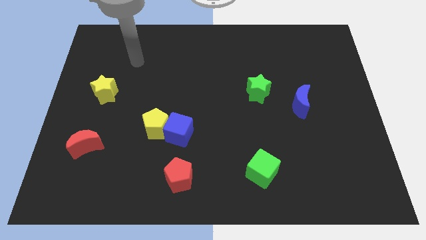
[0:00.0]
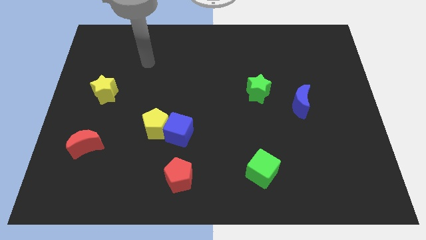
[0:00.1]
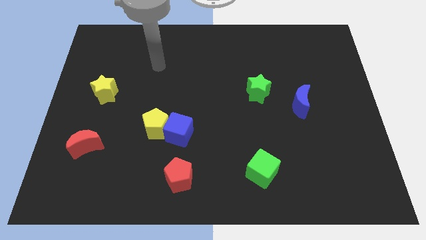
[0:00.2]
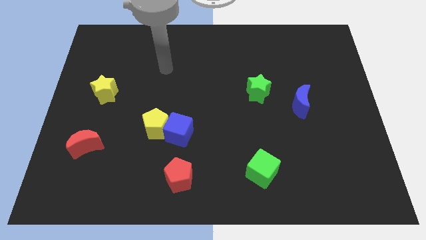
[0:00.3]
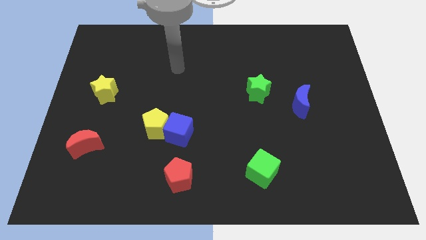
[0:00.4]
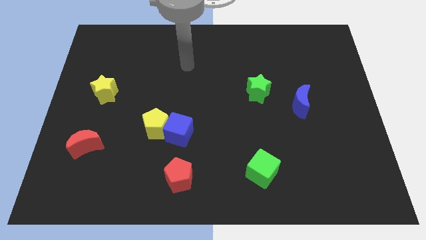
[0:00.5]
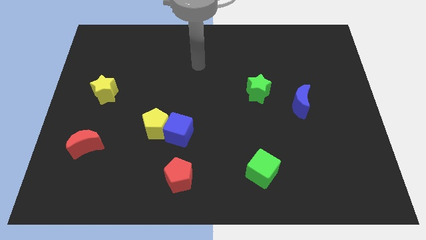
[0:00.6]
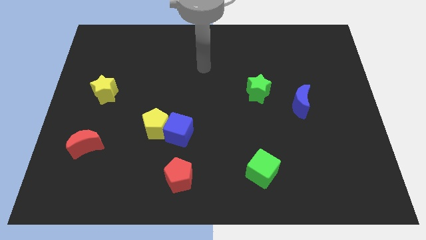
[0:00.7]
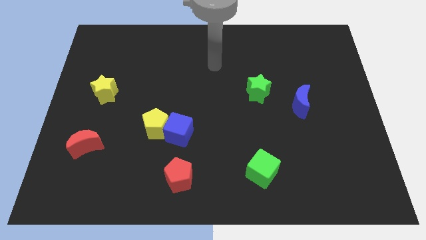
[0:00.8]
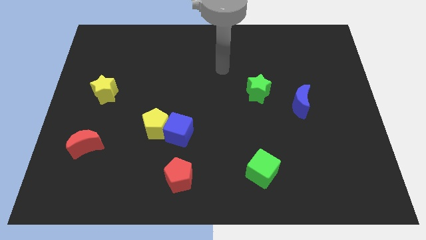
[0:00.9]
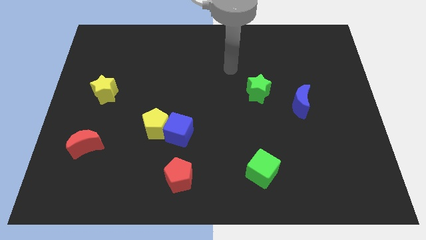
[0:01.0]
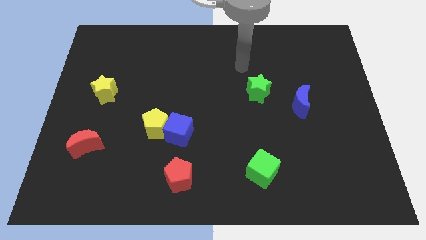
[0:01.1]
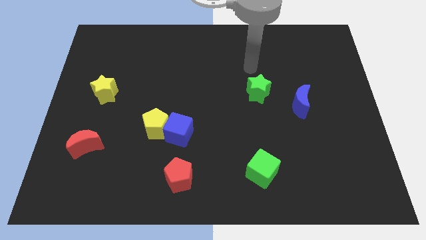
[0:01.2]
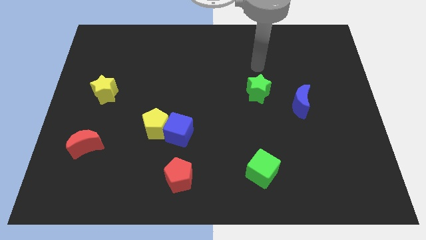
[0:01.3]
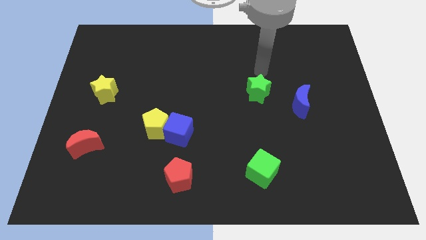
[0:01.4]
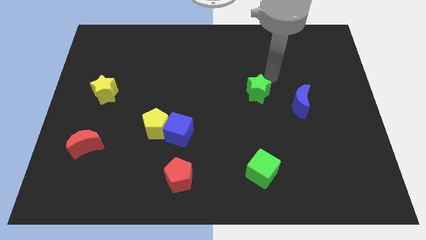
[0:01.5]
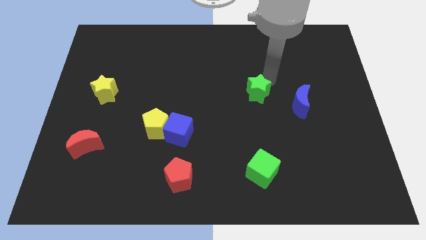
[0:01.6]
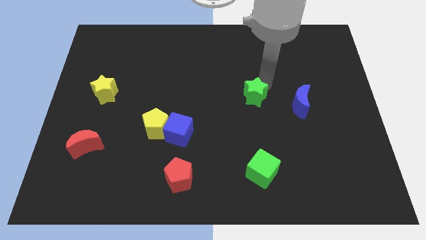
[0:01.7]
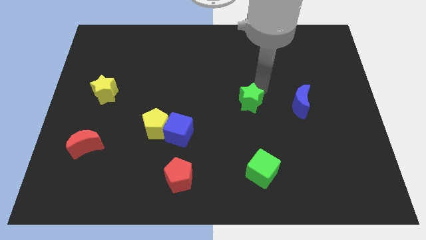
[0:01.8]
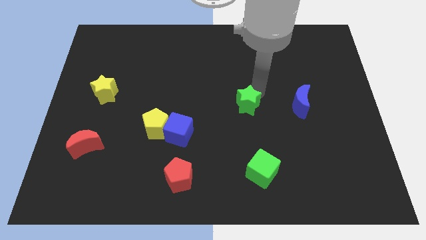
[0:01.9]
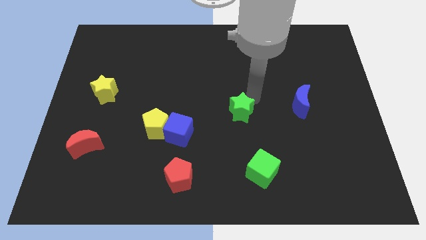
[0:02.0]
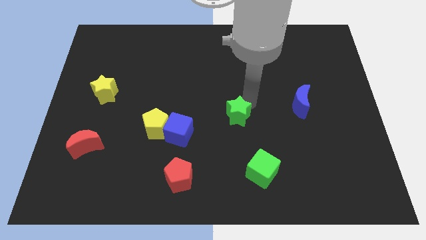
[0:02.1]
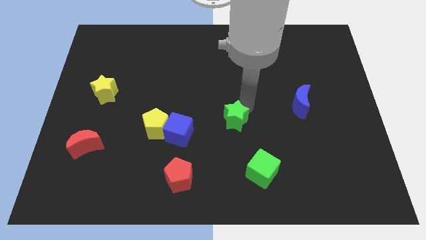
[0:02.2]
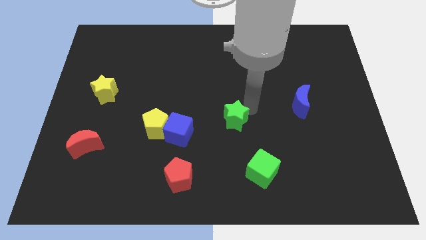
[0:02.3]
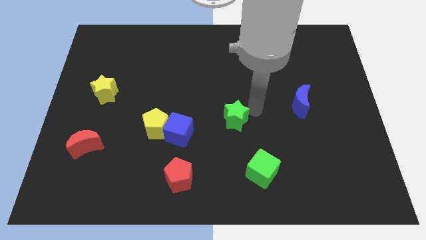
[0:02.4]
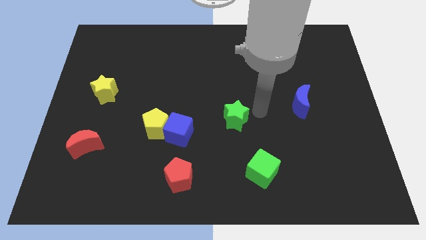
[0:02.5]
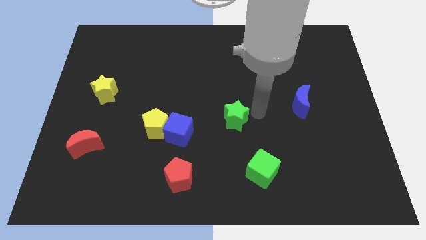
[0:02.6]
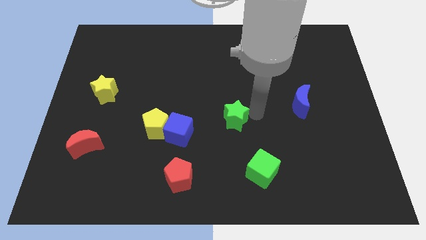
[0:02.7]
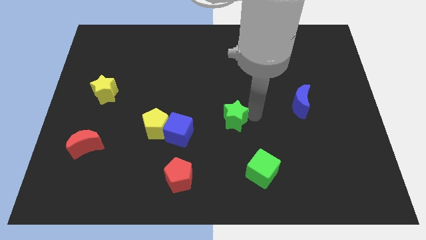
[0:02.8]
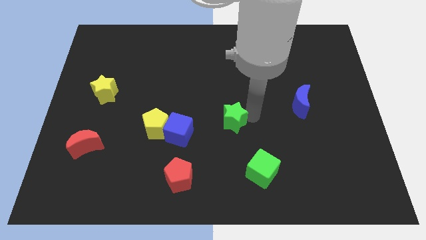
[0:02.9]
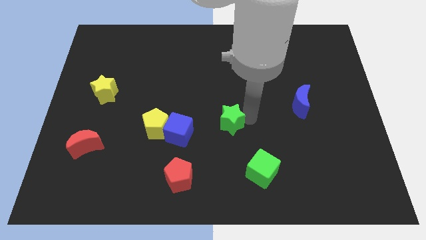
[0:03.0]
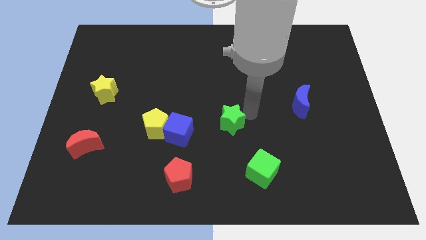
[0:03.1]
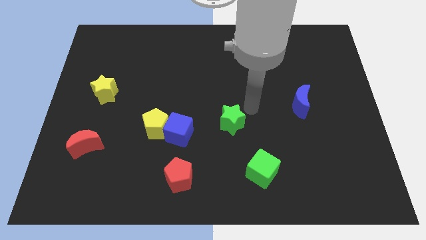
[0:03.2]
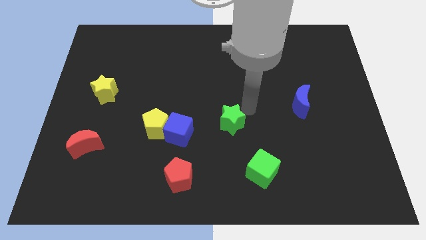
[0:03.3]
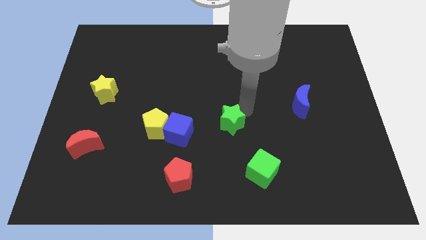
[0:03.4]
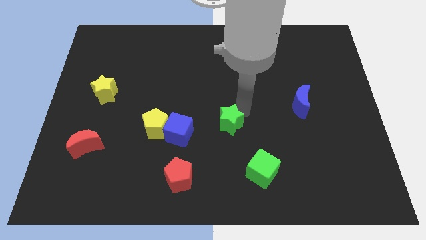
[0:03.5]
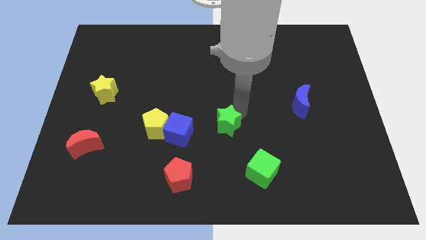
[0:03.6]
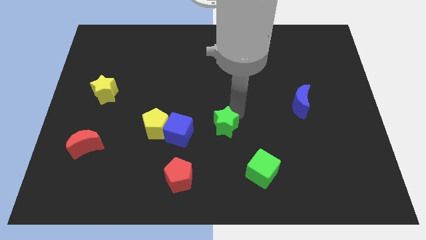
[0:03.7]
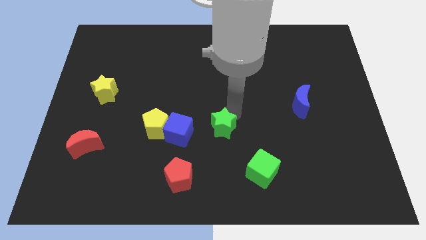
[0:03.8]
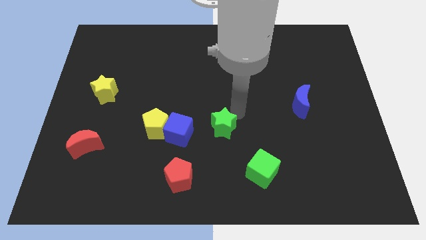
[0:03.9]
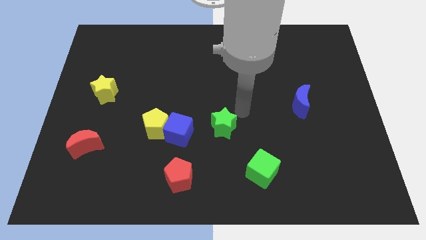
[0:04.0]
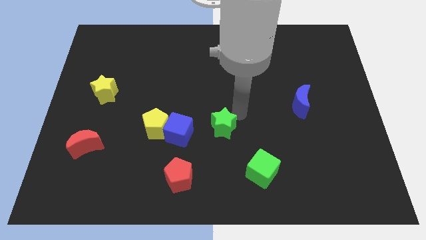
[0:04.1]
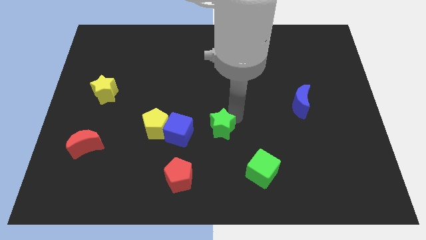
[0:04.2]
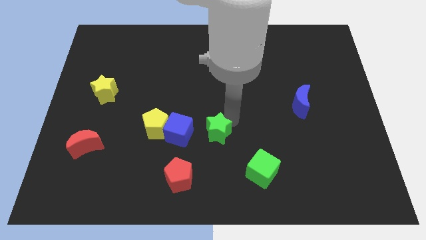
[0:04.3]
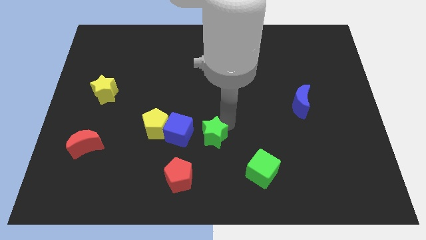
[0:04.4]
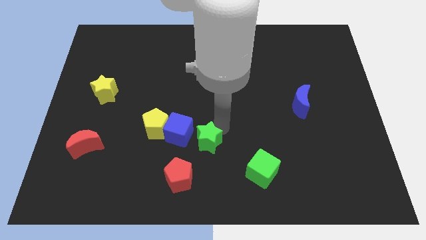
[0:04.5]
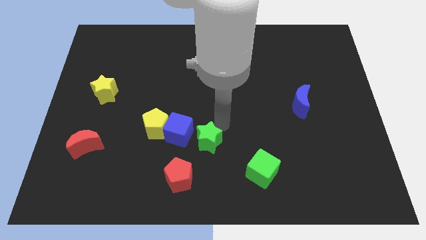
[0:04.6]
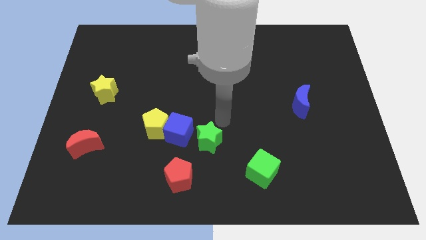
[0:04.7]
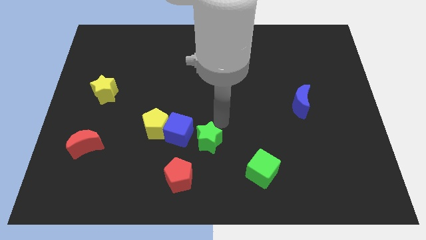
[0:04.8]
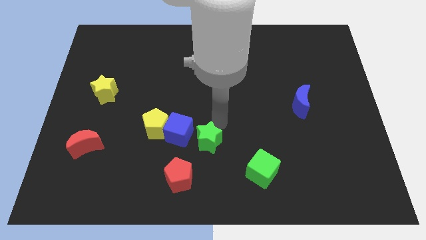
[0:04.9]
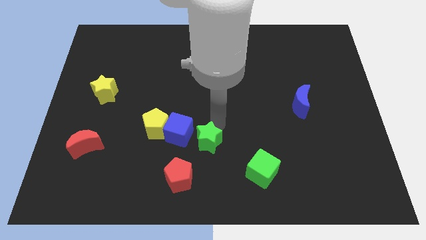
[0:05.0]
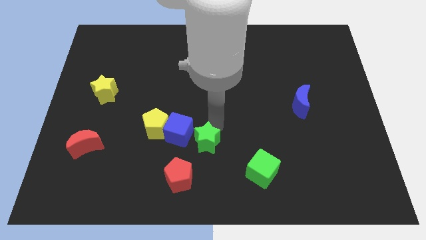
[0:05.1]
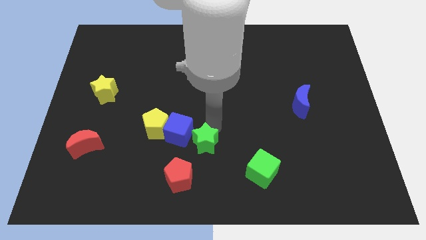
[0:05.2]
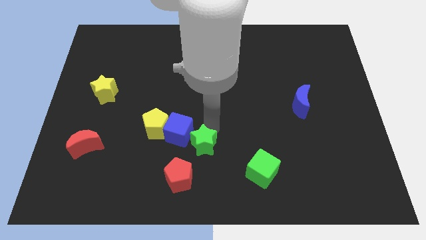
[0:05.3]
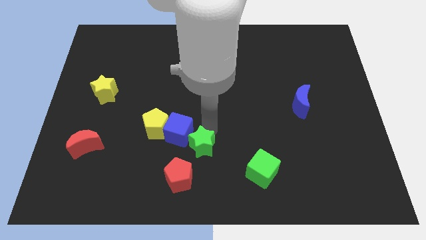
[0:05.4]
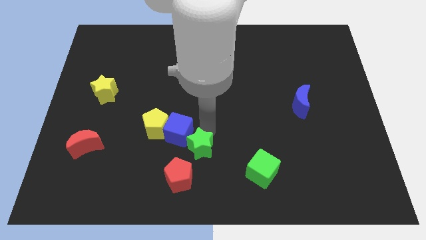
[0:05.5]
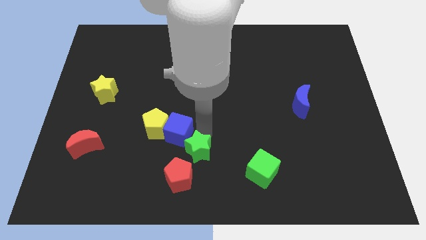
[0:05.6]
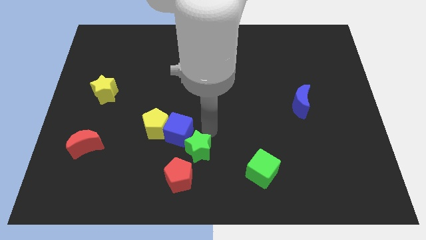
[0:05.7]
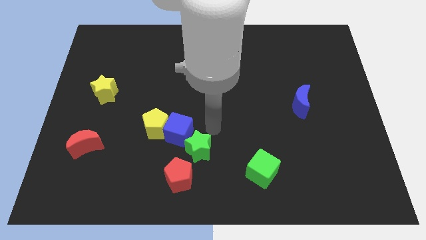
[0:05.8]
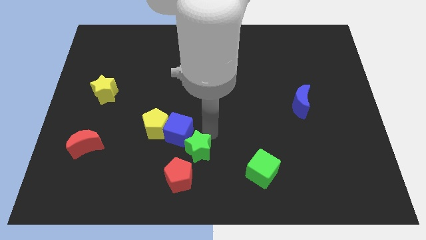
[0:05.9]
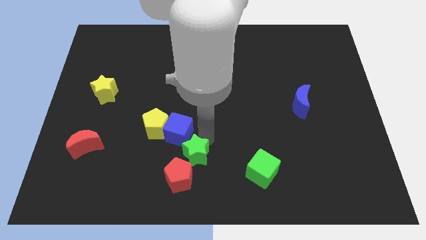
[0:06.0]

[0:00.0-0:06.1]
push the green star towards the red pentagon

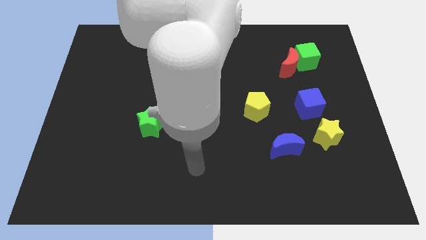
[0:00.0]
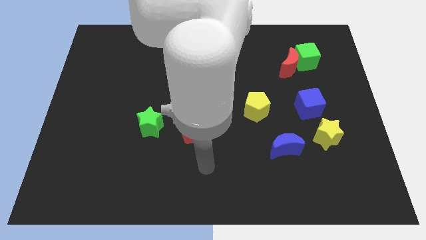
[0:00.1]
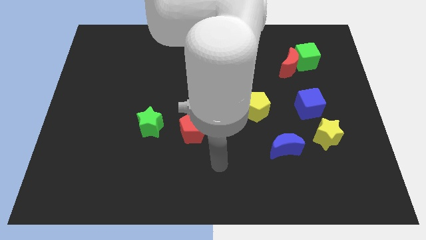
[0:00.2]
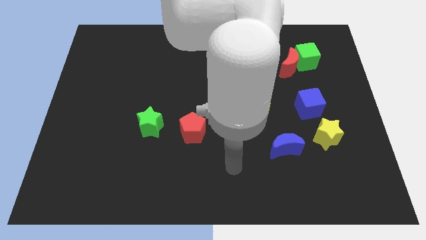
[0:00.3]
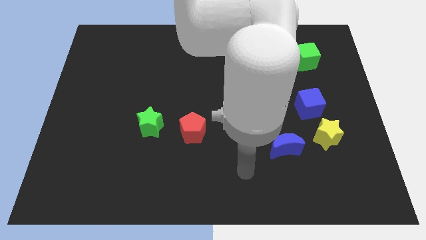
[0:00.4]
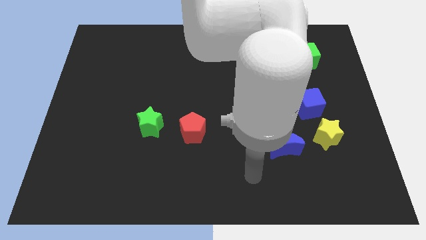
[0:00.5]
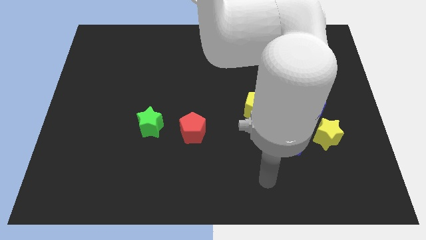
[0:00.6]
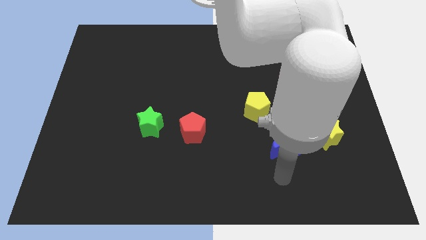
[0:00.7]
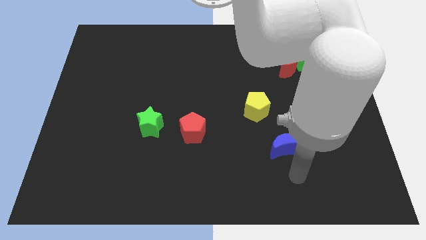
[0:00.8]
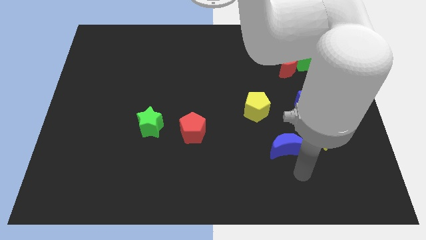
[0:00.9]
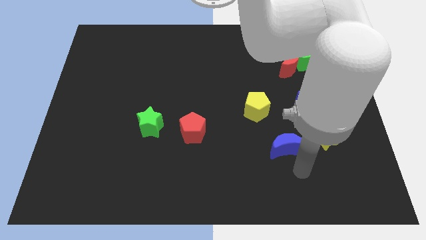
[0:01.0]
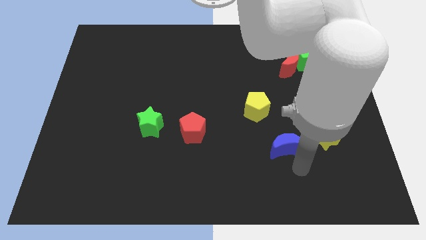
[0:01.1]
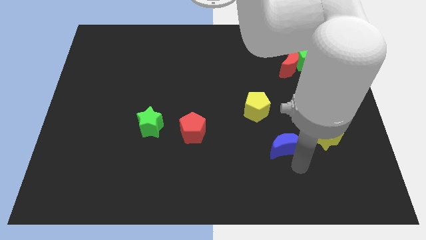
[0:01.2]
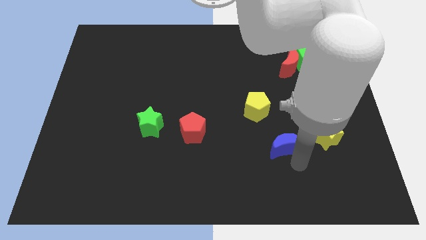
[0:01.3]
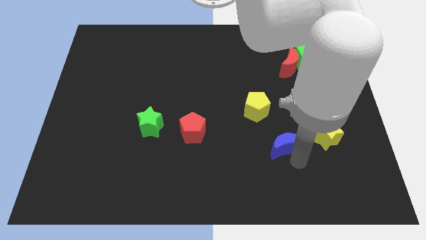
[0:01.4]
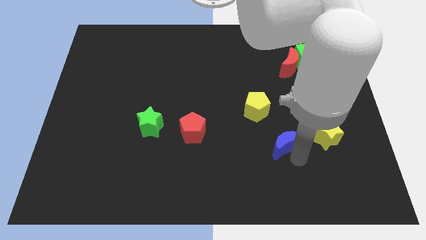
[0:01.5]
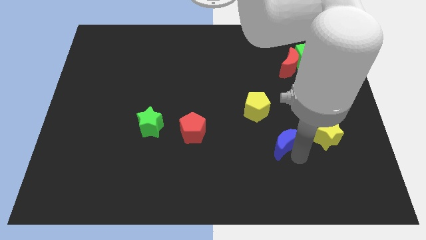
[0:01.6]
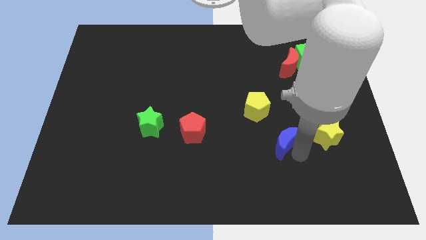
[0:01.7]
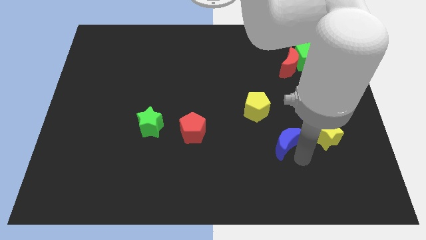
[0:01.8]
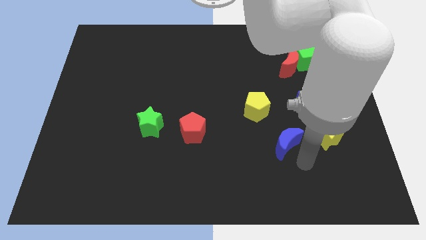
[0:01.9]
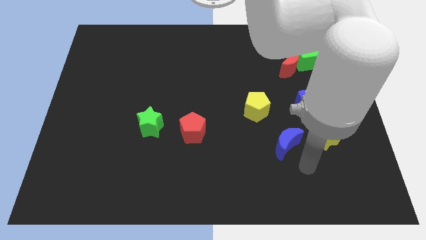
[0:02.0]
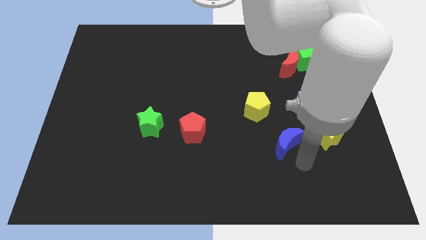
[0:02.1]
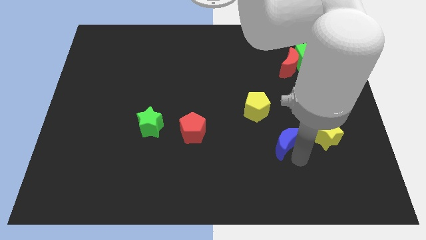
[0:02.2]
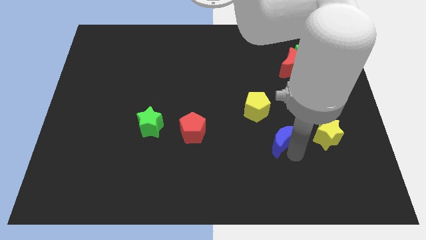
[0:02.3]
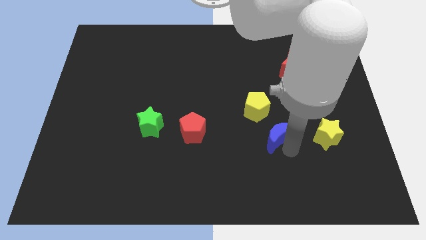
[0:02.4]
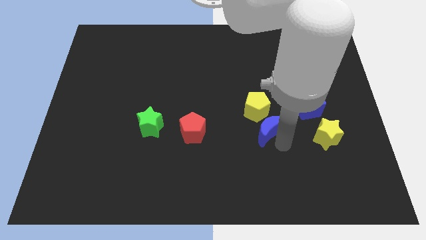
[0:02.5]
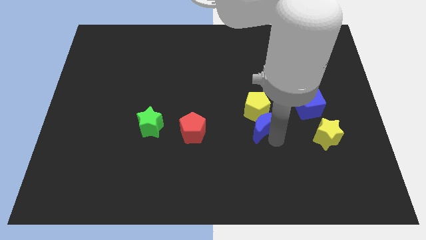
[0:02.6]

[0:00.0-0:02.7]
slide the blue moon towards the yellow pentagon
